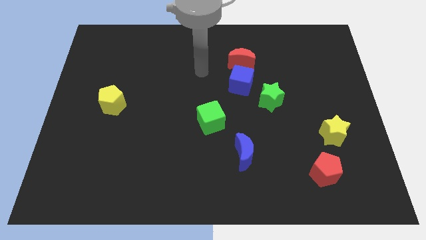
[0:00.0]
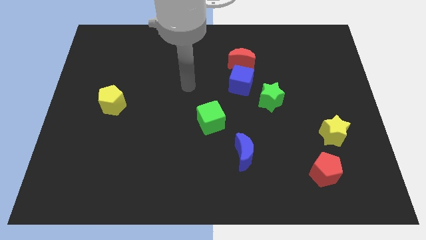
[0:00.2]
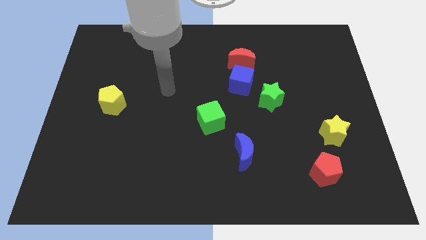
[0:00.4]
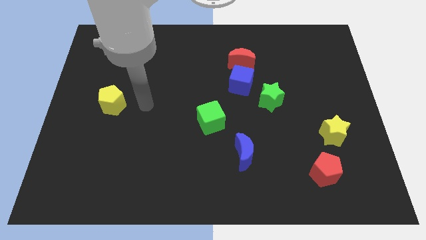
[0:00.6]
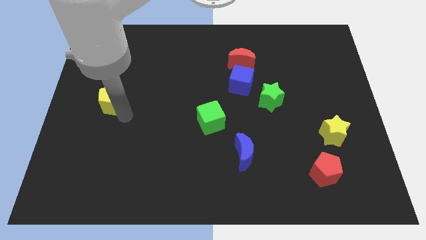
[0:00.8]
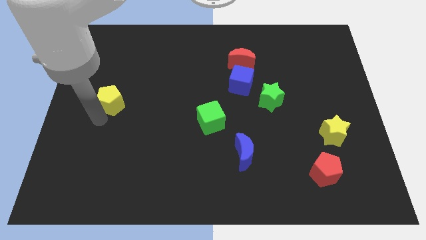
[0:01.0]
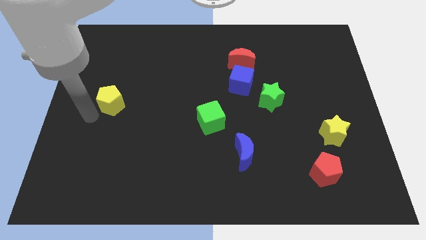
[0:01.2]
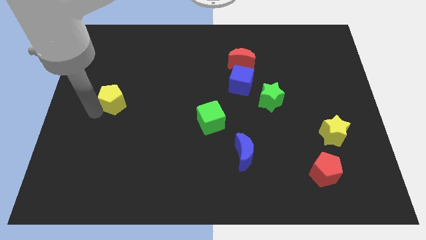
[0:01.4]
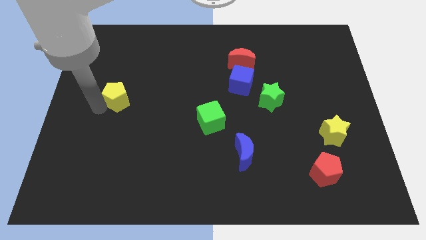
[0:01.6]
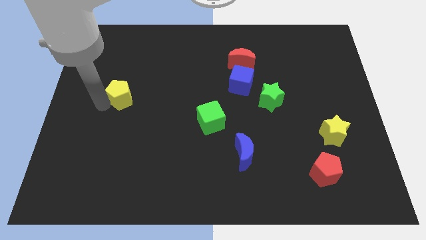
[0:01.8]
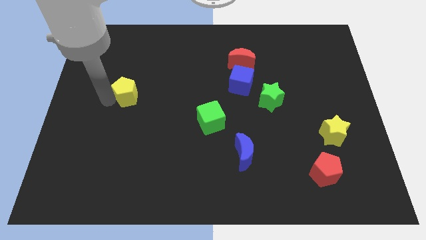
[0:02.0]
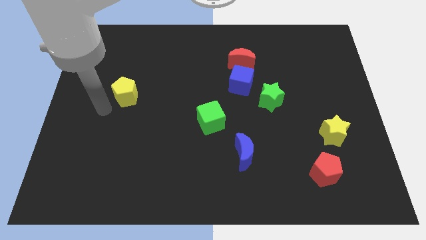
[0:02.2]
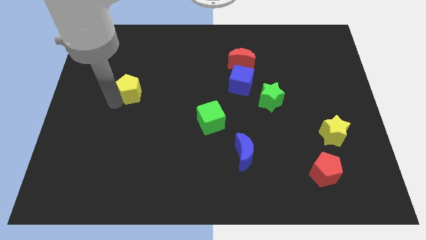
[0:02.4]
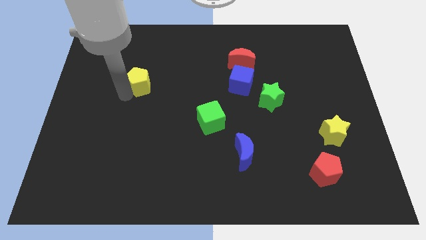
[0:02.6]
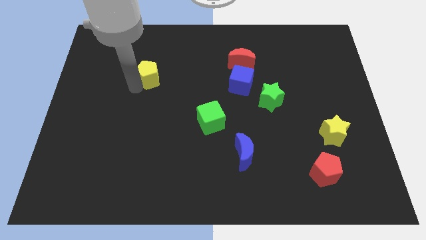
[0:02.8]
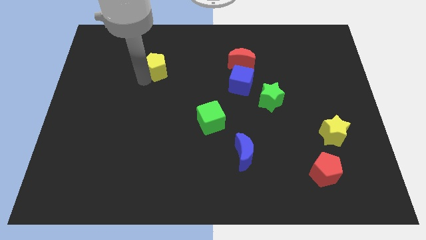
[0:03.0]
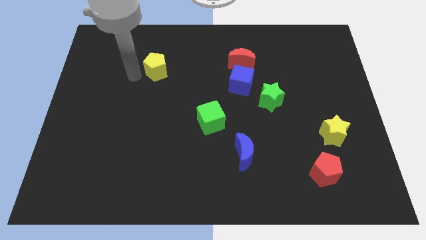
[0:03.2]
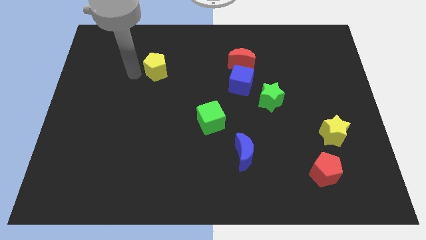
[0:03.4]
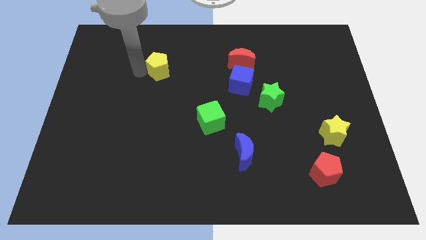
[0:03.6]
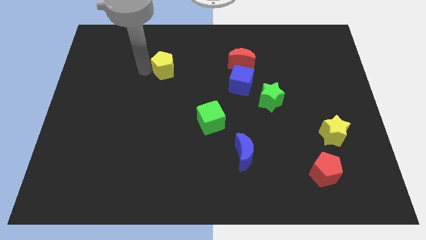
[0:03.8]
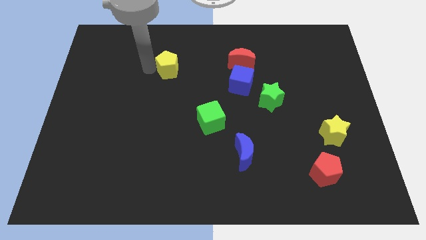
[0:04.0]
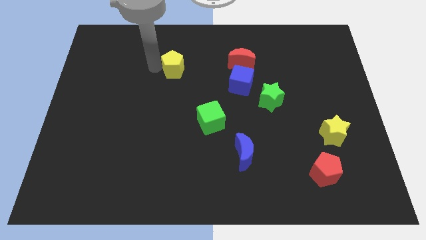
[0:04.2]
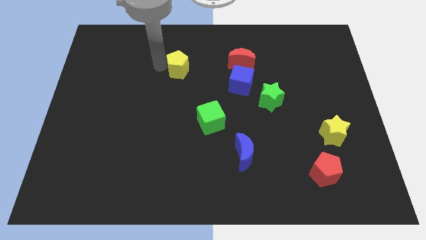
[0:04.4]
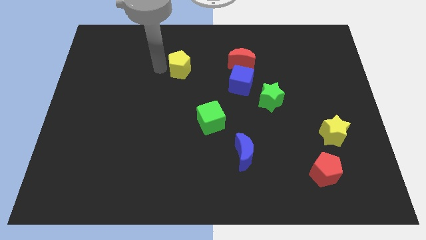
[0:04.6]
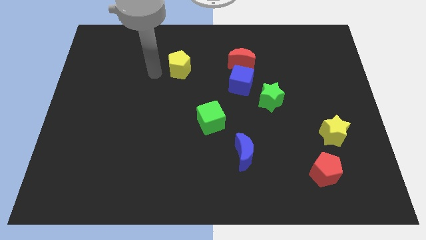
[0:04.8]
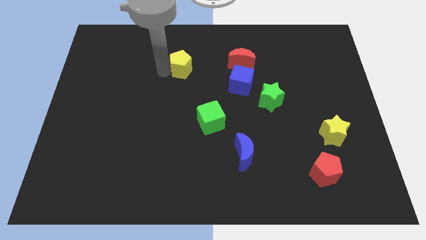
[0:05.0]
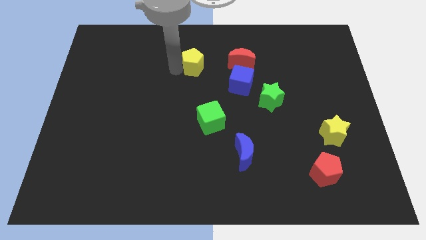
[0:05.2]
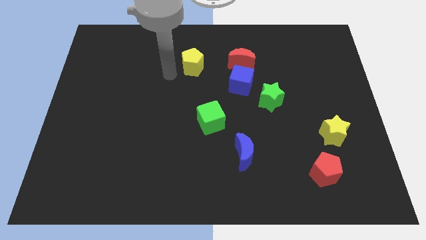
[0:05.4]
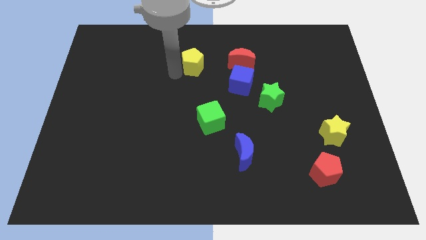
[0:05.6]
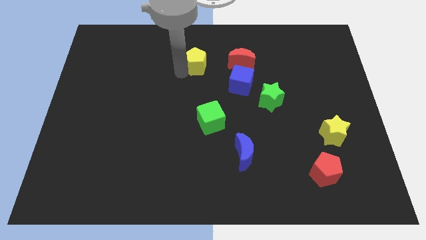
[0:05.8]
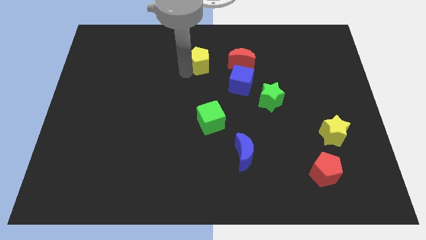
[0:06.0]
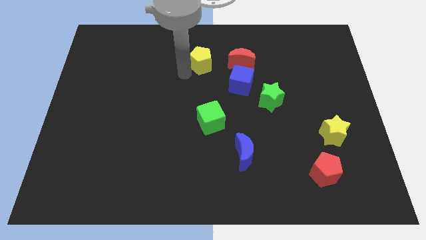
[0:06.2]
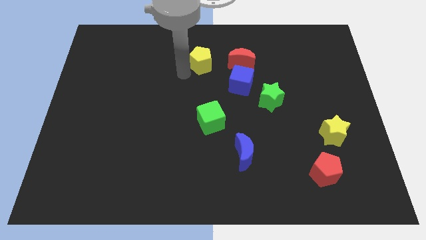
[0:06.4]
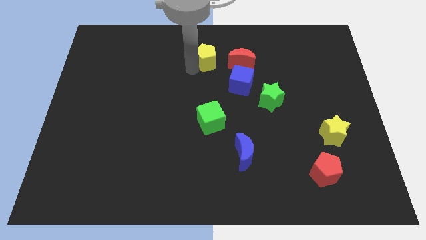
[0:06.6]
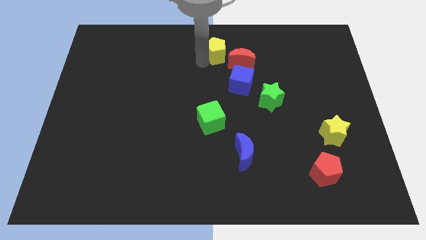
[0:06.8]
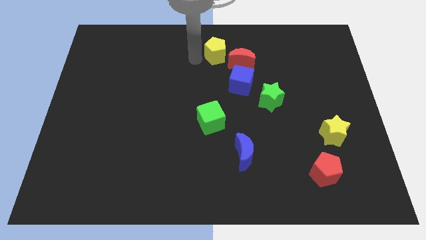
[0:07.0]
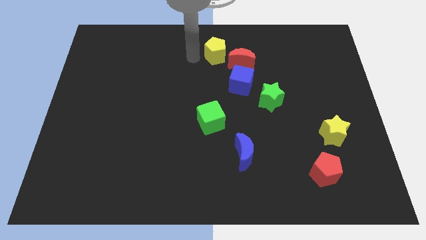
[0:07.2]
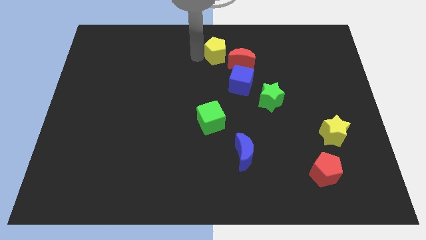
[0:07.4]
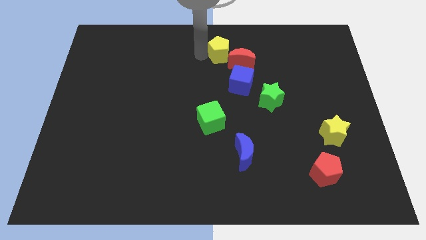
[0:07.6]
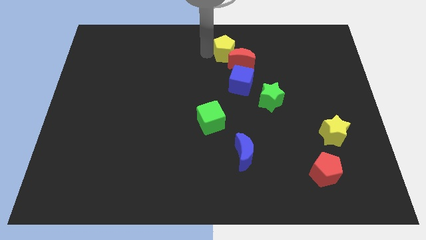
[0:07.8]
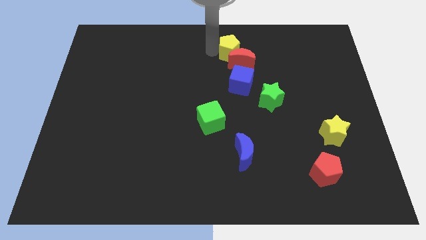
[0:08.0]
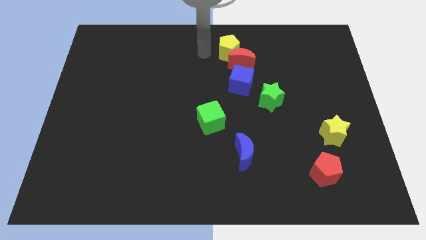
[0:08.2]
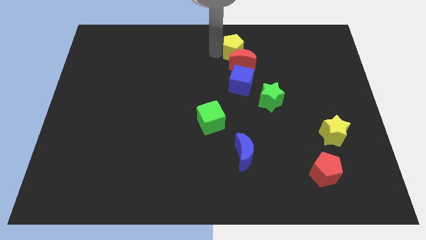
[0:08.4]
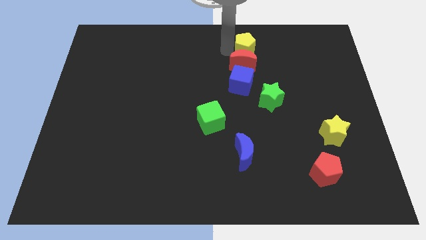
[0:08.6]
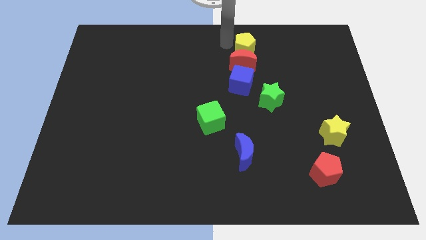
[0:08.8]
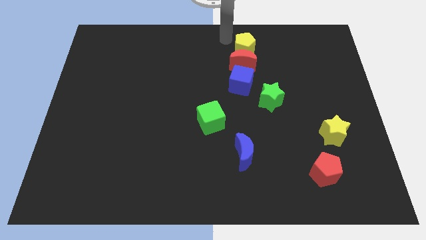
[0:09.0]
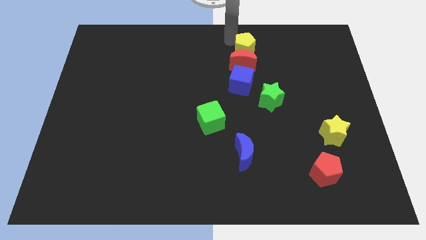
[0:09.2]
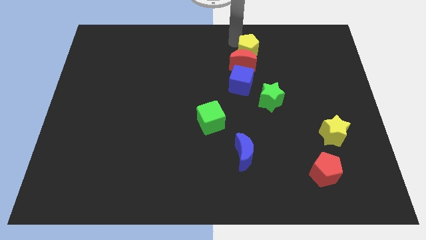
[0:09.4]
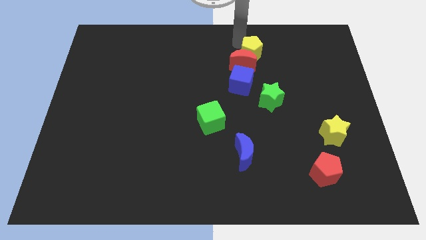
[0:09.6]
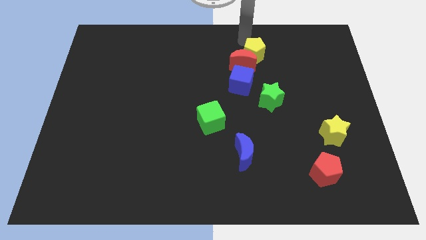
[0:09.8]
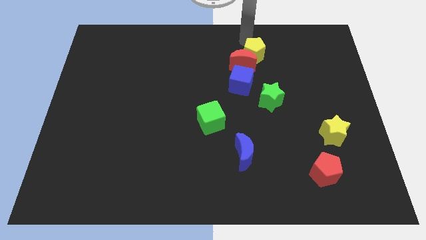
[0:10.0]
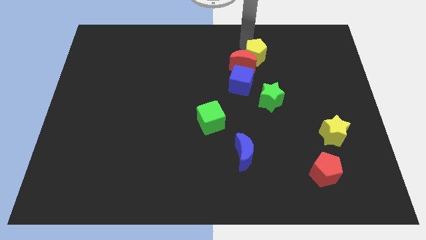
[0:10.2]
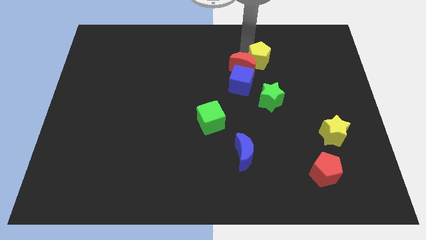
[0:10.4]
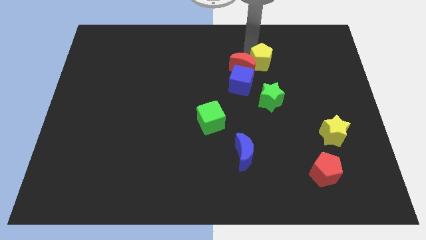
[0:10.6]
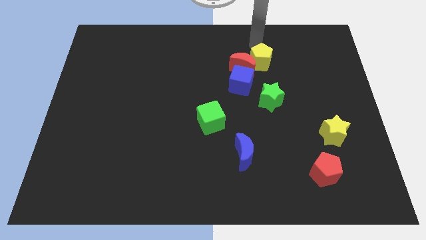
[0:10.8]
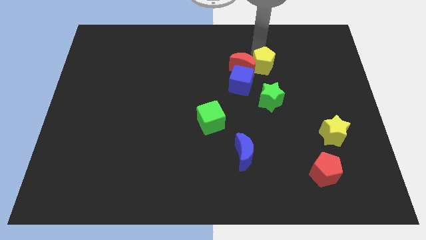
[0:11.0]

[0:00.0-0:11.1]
slide the yellow pentagon to the bottom right of the red moon

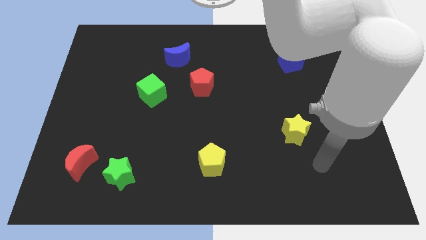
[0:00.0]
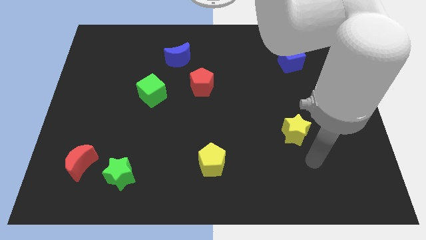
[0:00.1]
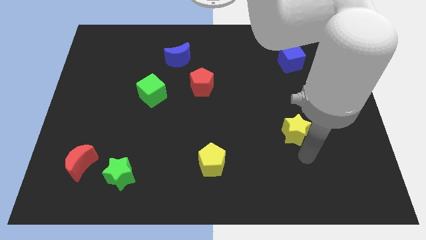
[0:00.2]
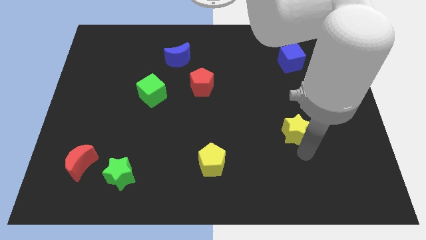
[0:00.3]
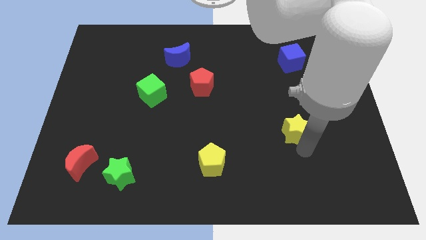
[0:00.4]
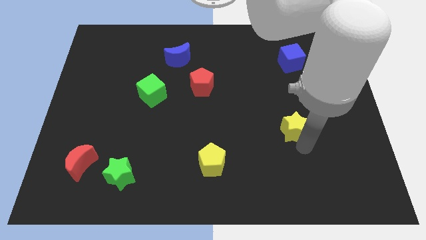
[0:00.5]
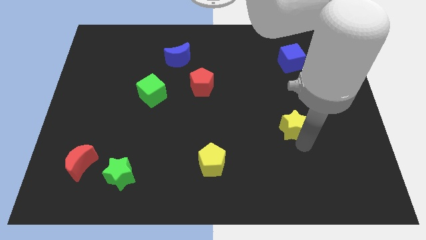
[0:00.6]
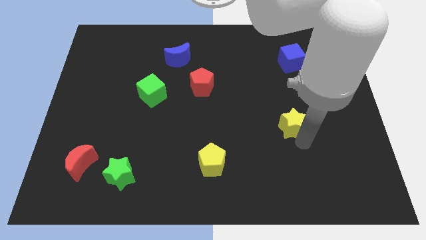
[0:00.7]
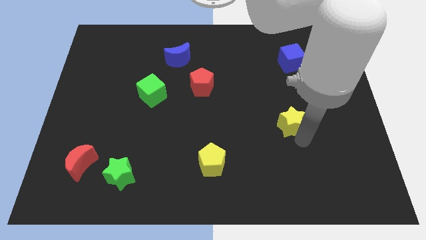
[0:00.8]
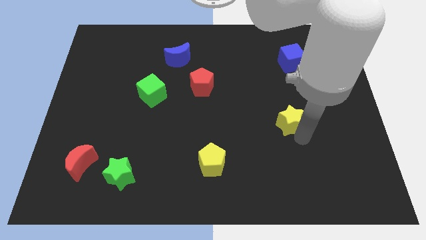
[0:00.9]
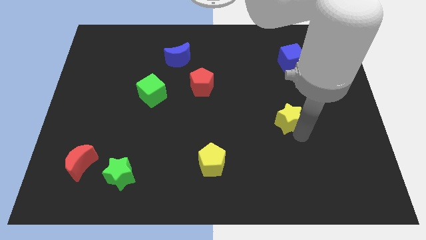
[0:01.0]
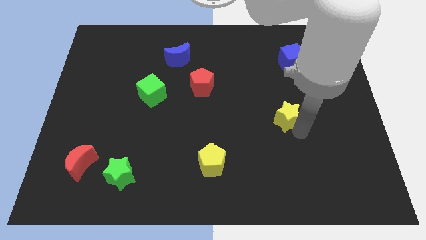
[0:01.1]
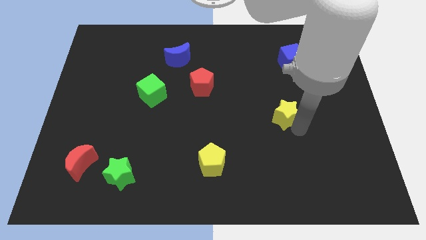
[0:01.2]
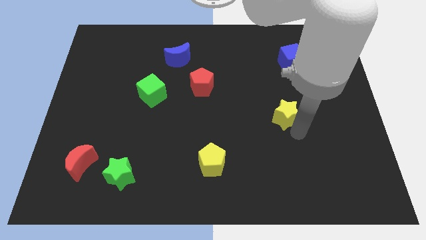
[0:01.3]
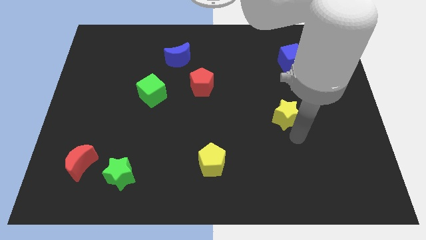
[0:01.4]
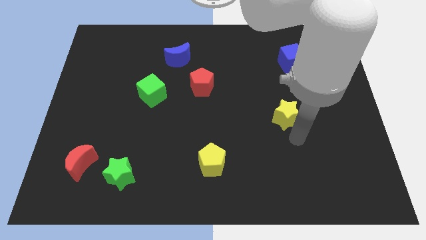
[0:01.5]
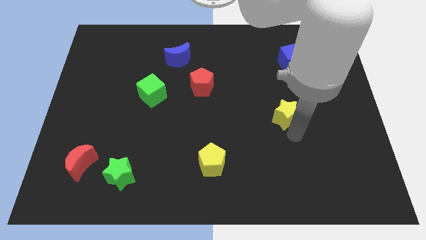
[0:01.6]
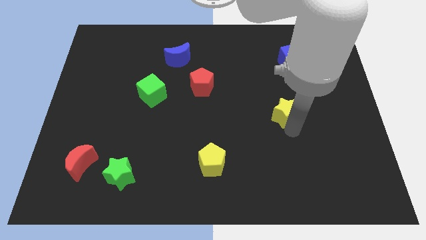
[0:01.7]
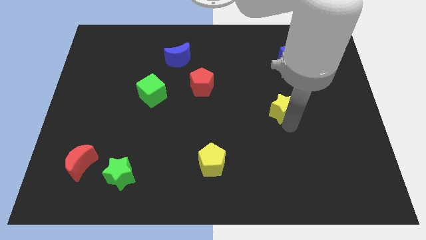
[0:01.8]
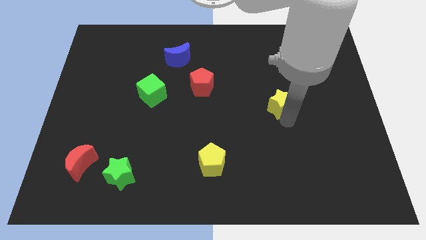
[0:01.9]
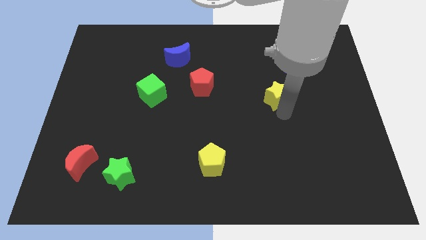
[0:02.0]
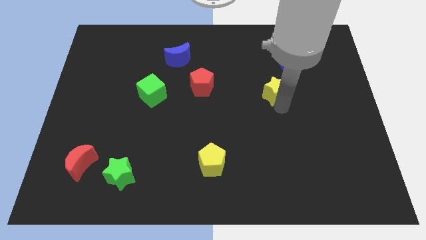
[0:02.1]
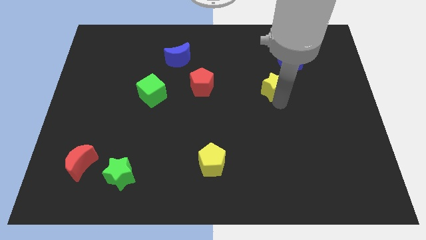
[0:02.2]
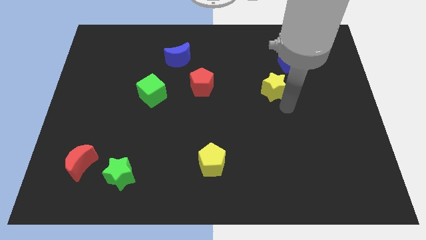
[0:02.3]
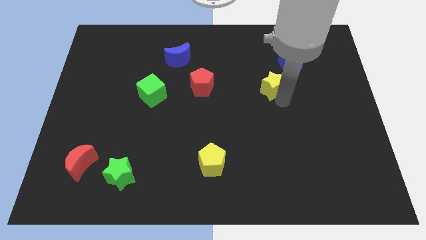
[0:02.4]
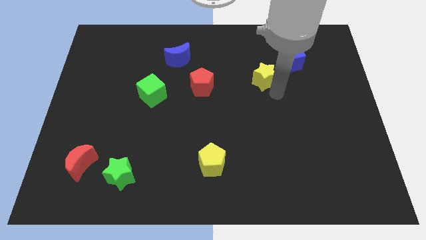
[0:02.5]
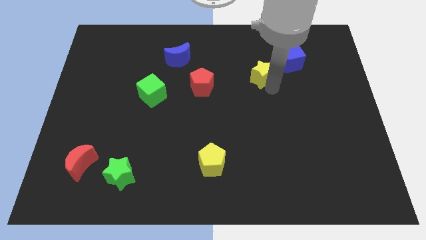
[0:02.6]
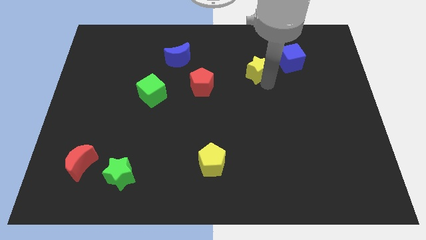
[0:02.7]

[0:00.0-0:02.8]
move the yellow star just left of the blue cube
